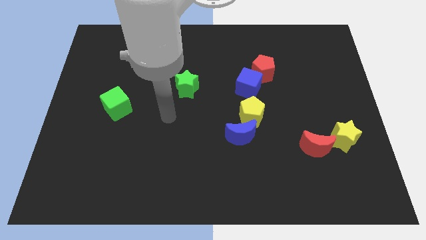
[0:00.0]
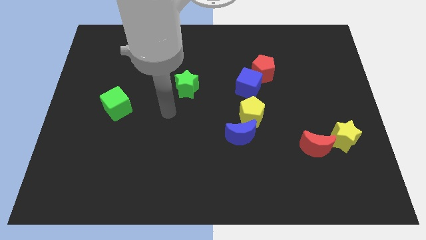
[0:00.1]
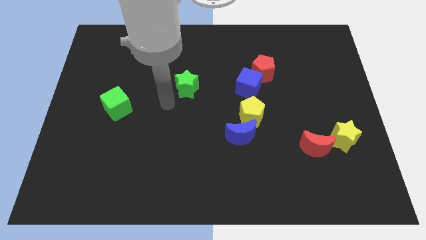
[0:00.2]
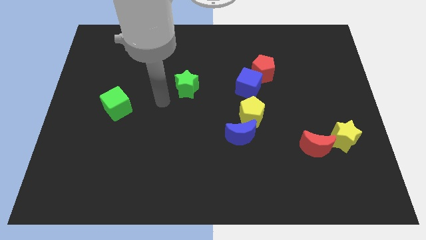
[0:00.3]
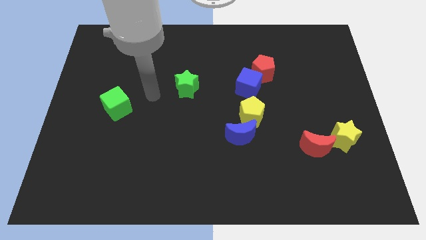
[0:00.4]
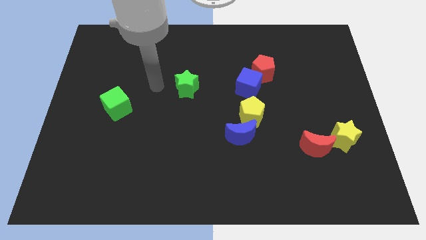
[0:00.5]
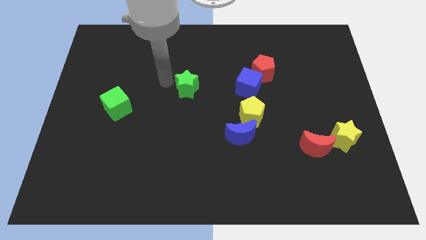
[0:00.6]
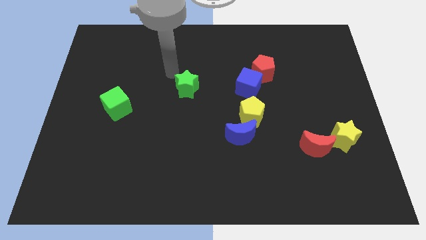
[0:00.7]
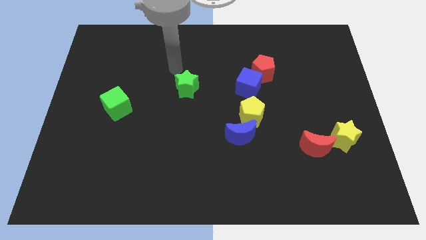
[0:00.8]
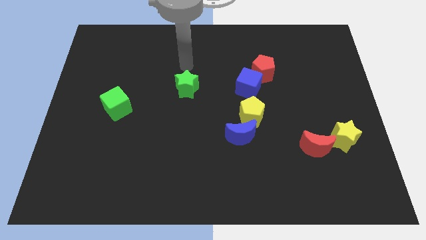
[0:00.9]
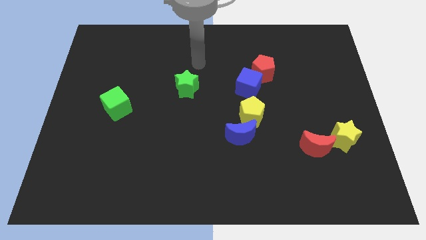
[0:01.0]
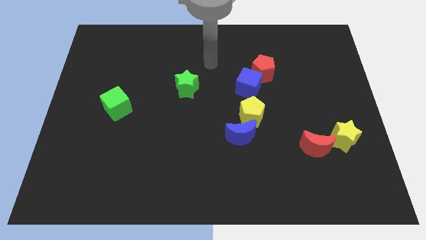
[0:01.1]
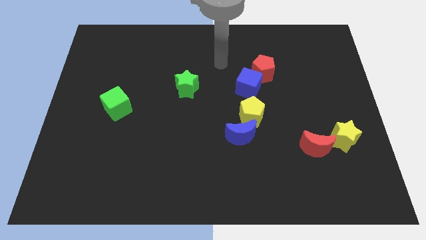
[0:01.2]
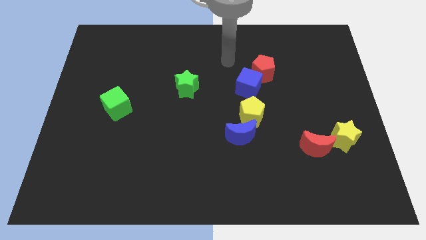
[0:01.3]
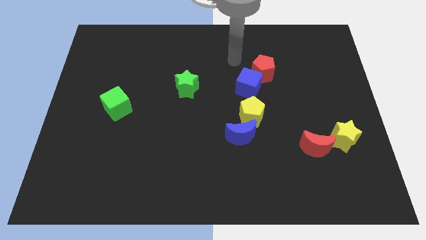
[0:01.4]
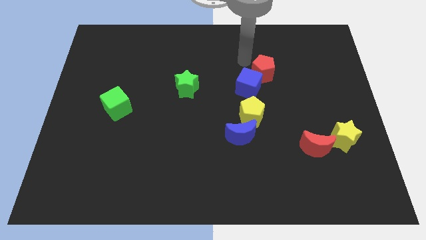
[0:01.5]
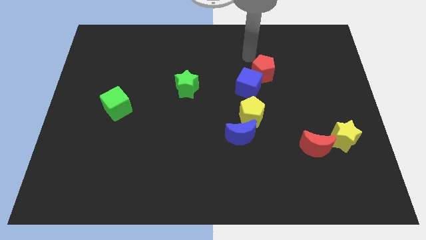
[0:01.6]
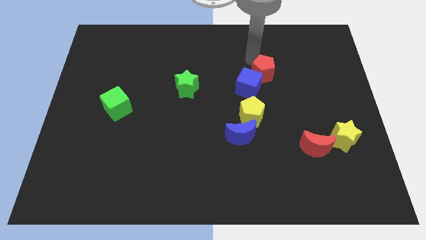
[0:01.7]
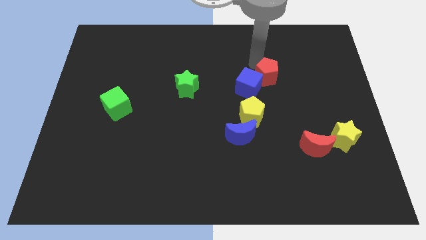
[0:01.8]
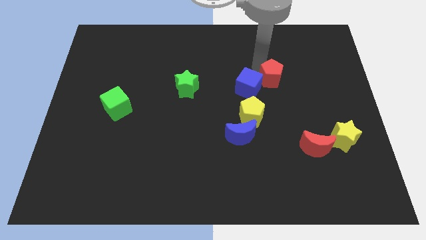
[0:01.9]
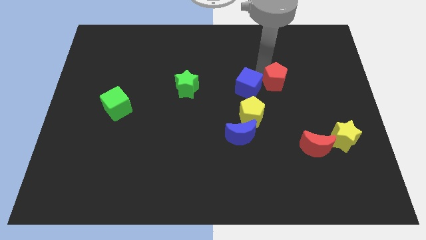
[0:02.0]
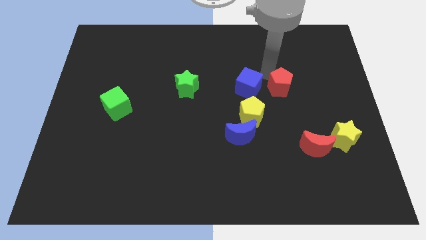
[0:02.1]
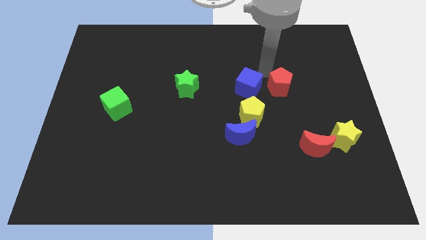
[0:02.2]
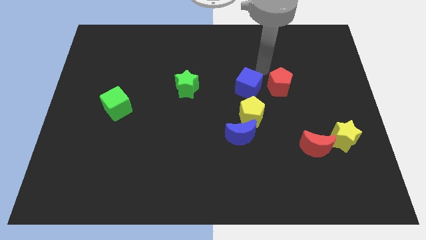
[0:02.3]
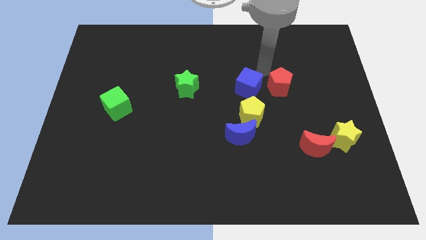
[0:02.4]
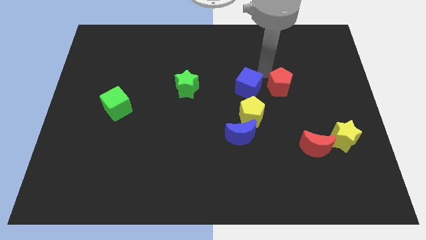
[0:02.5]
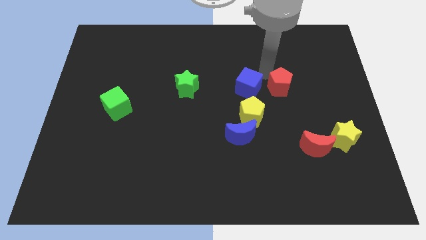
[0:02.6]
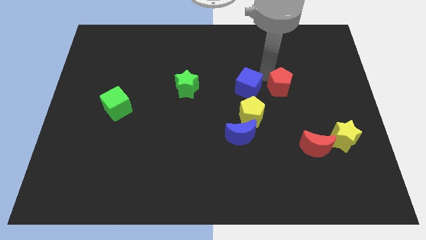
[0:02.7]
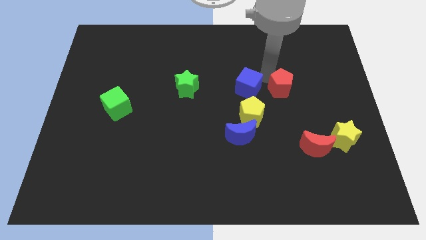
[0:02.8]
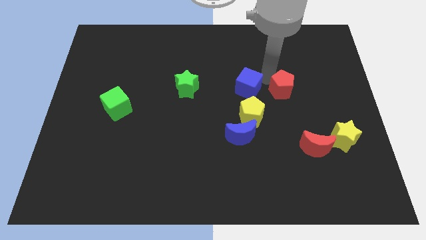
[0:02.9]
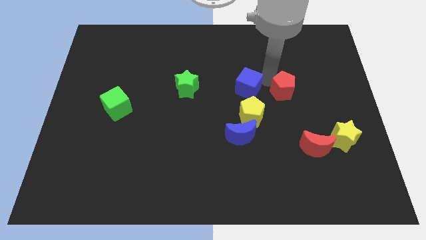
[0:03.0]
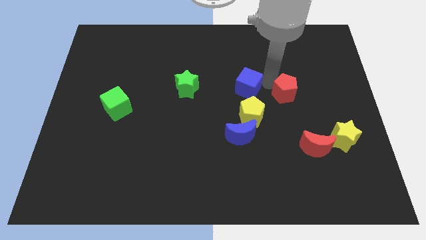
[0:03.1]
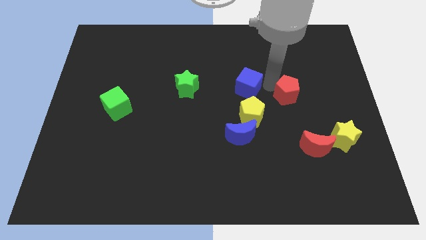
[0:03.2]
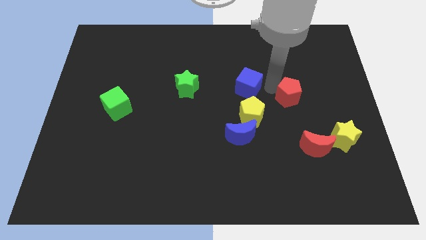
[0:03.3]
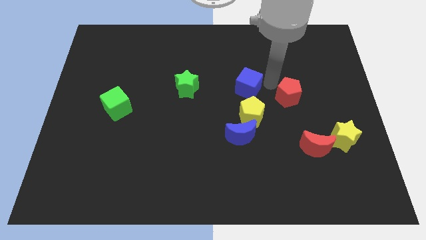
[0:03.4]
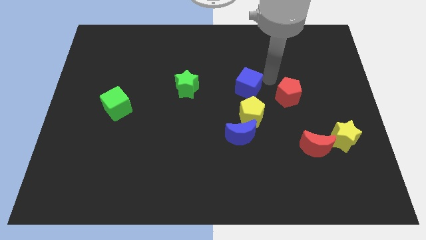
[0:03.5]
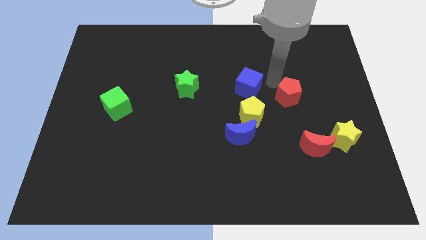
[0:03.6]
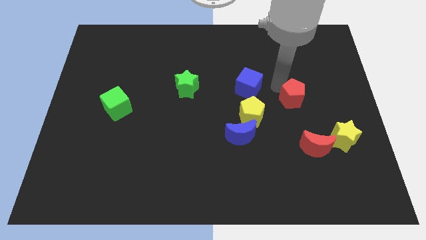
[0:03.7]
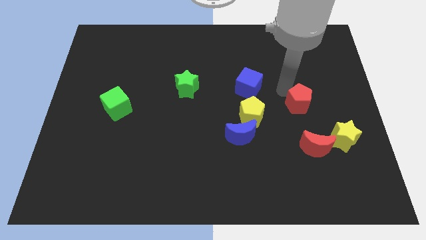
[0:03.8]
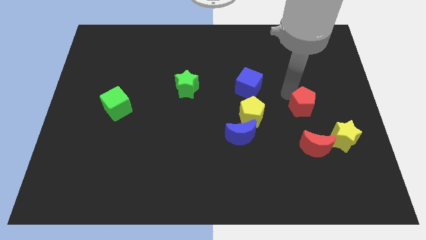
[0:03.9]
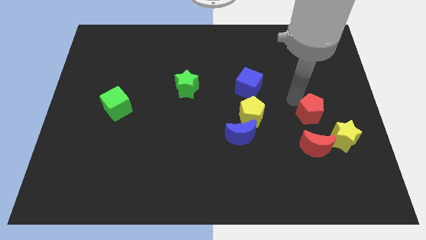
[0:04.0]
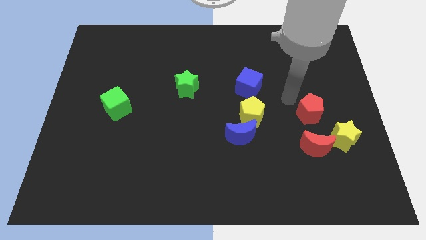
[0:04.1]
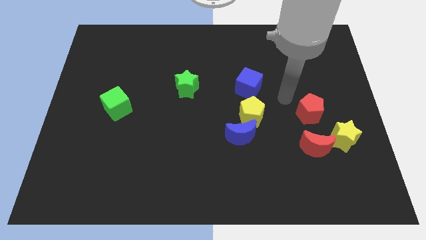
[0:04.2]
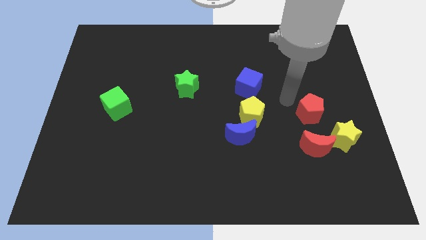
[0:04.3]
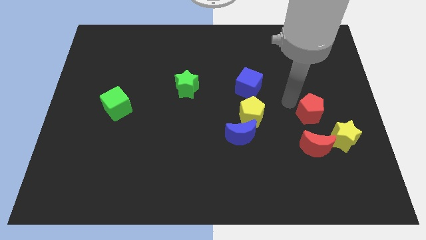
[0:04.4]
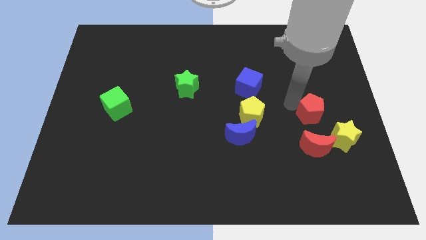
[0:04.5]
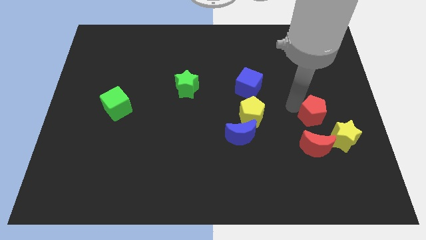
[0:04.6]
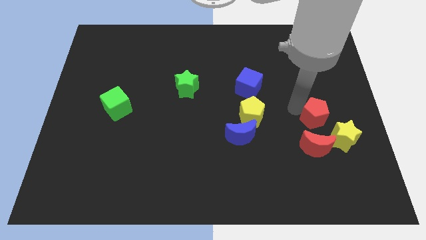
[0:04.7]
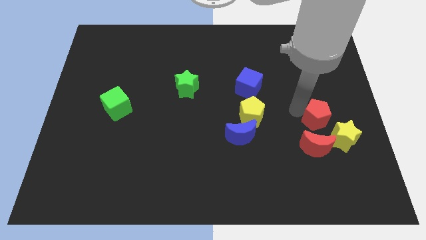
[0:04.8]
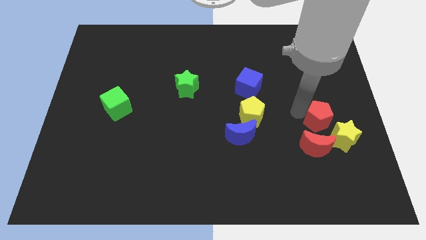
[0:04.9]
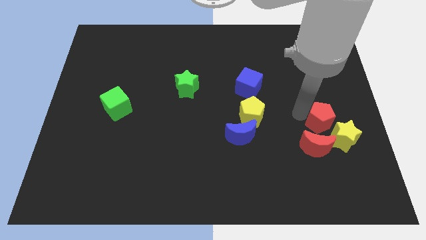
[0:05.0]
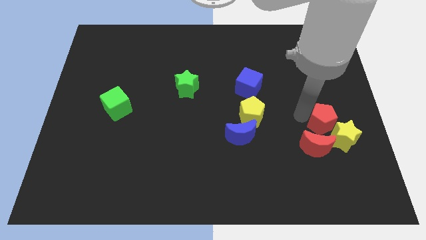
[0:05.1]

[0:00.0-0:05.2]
move the red pentagon towards the yellow star

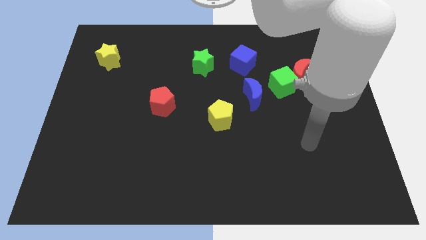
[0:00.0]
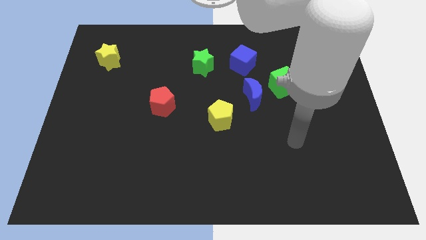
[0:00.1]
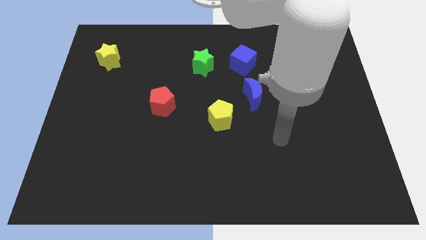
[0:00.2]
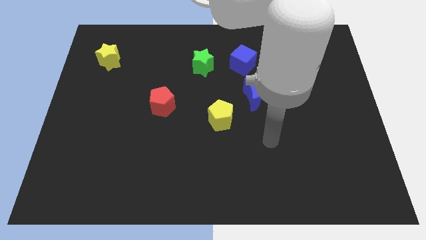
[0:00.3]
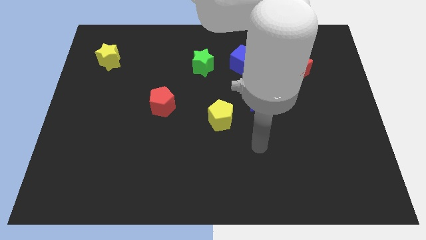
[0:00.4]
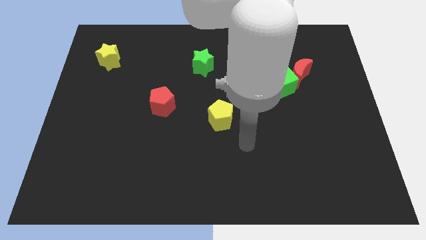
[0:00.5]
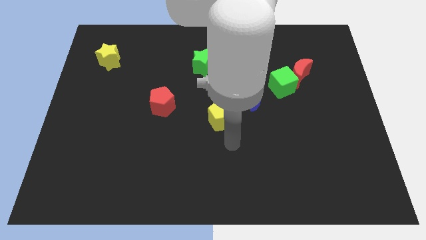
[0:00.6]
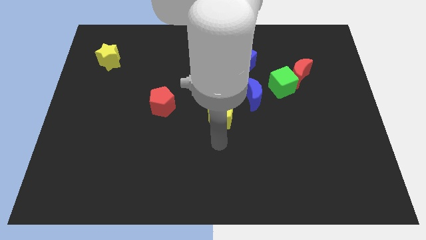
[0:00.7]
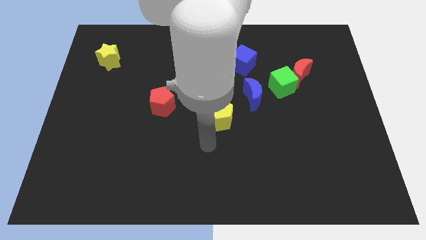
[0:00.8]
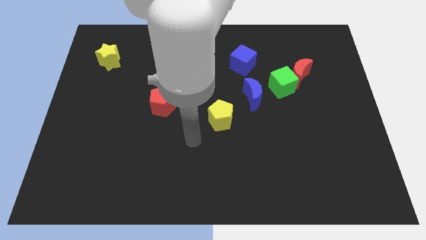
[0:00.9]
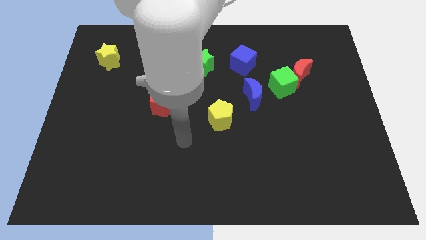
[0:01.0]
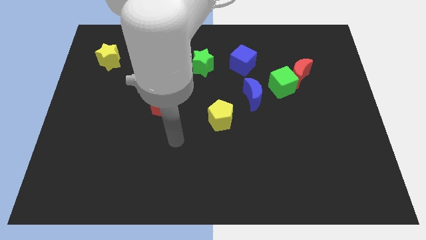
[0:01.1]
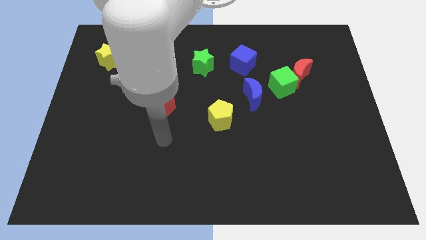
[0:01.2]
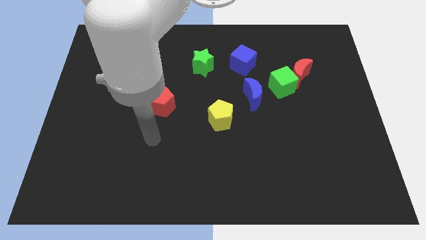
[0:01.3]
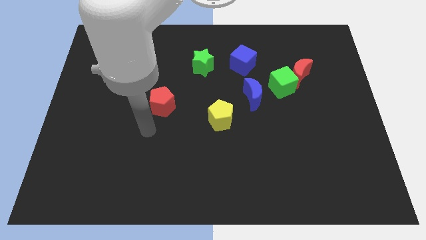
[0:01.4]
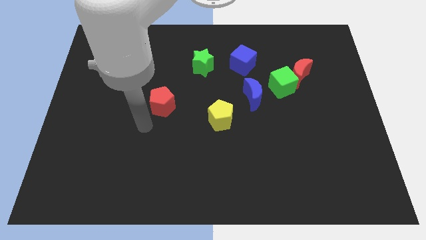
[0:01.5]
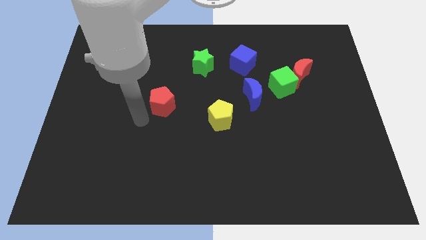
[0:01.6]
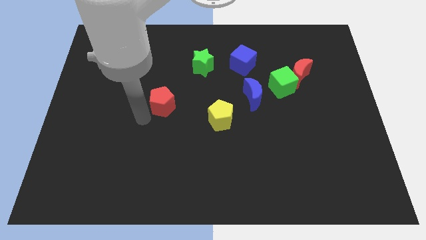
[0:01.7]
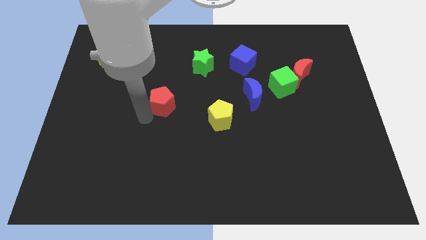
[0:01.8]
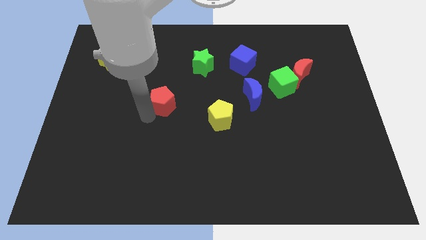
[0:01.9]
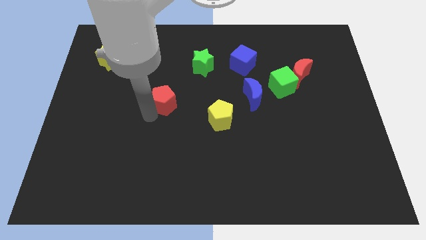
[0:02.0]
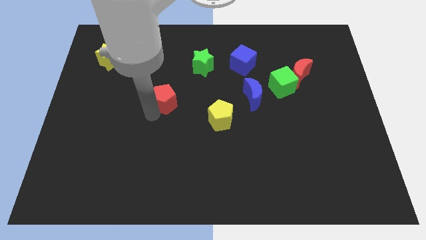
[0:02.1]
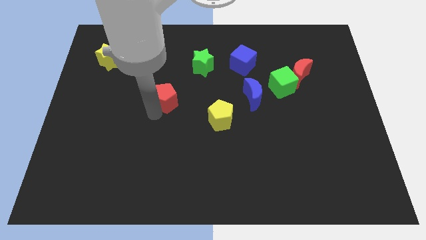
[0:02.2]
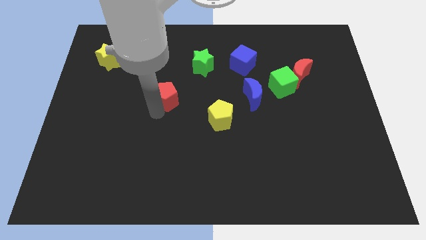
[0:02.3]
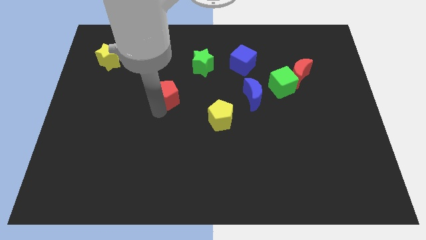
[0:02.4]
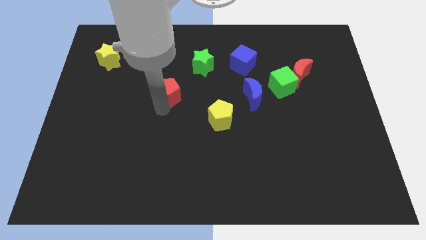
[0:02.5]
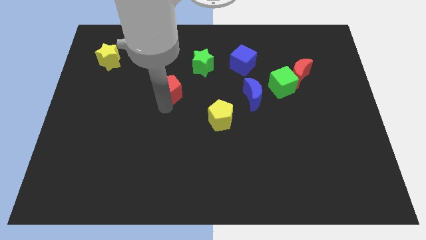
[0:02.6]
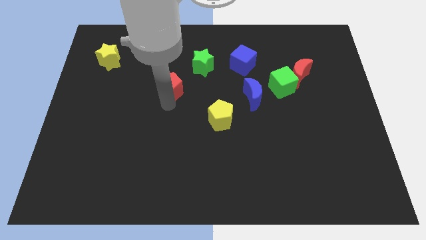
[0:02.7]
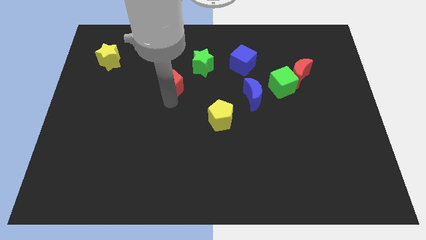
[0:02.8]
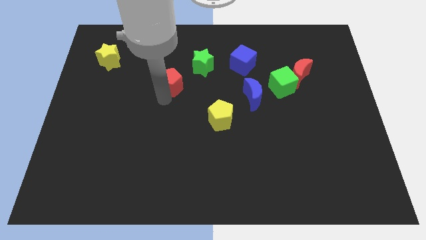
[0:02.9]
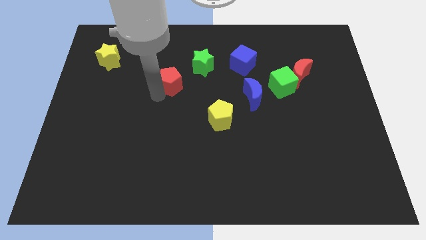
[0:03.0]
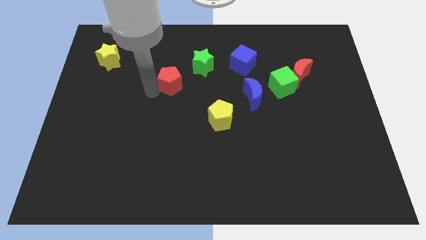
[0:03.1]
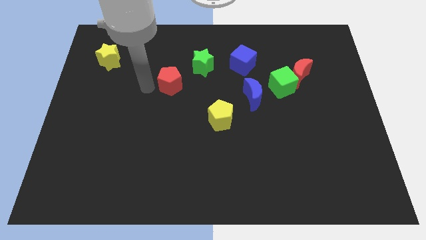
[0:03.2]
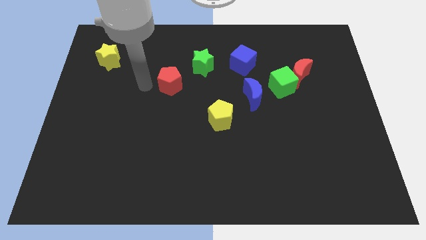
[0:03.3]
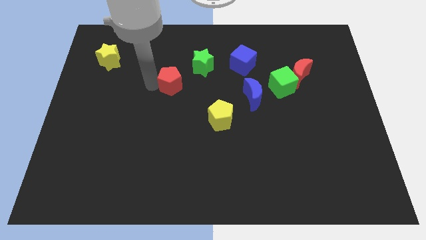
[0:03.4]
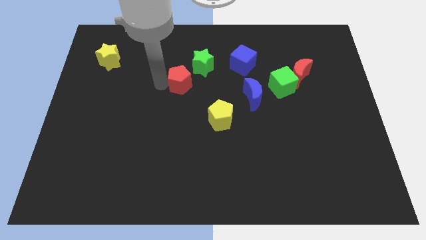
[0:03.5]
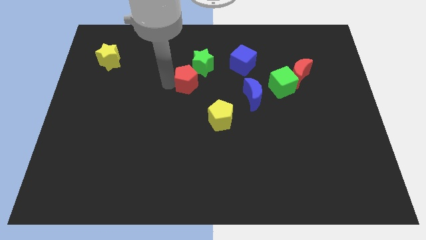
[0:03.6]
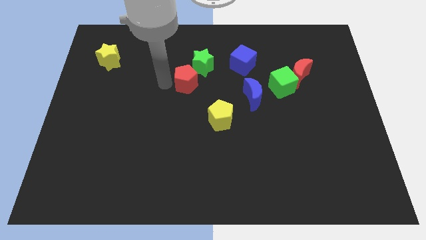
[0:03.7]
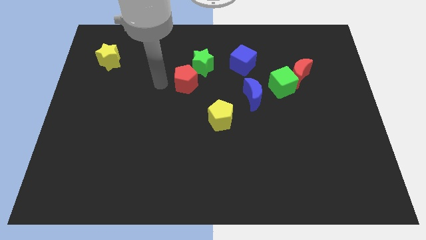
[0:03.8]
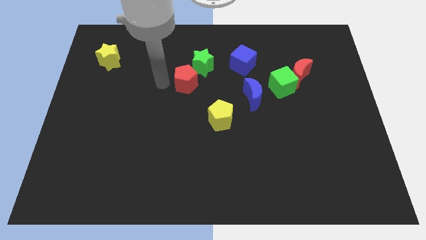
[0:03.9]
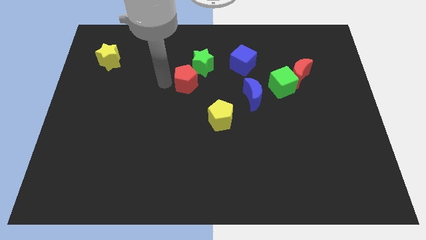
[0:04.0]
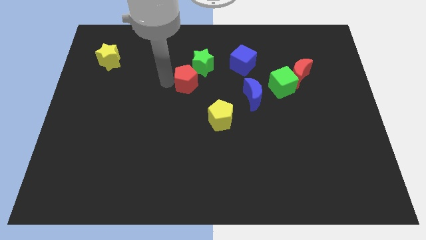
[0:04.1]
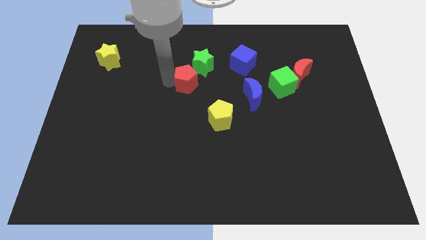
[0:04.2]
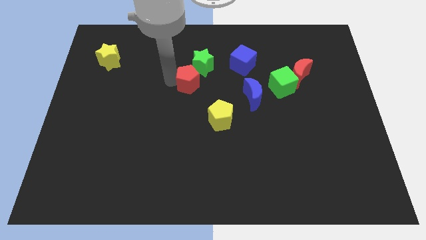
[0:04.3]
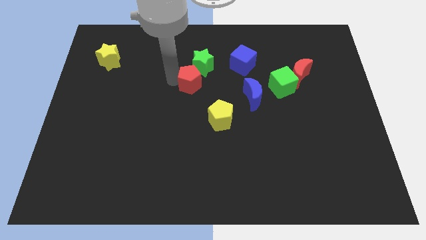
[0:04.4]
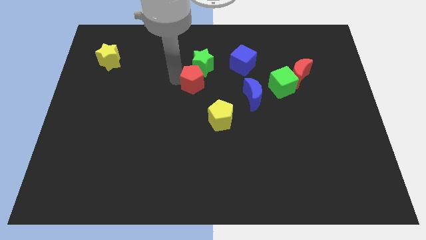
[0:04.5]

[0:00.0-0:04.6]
push the red pentagon to the green star
